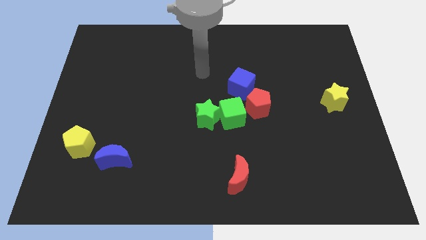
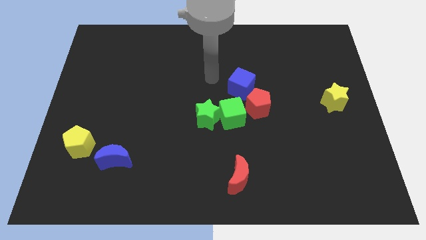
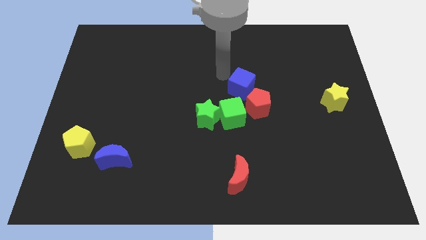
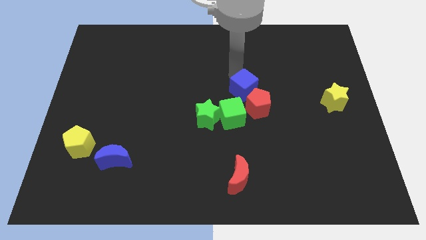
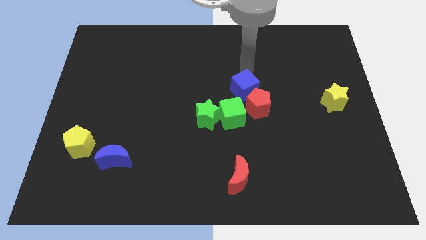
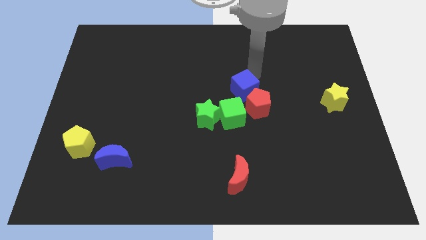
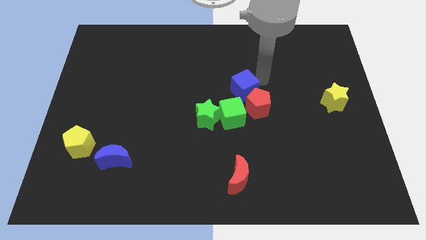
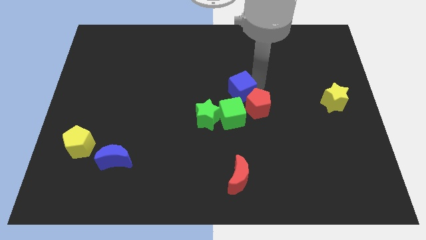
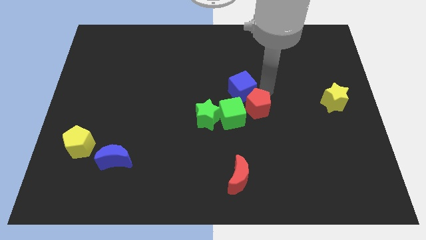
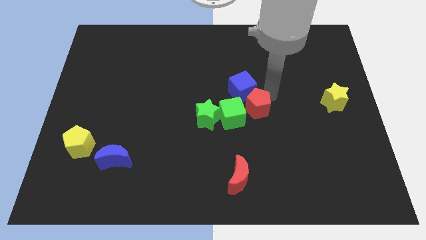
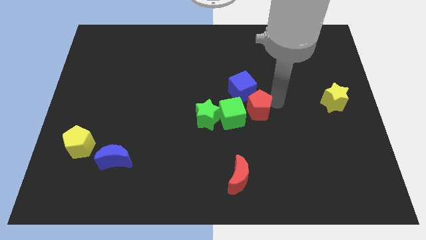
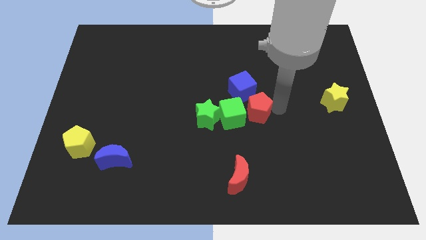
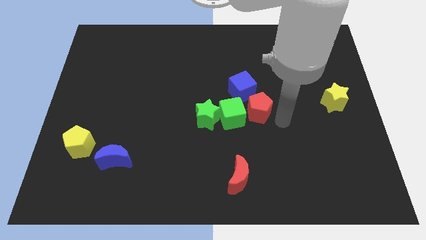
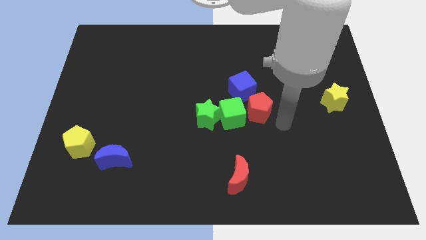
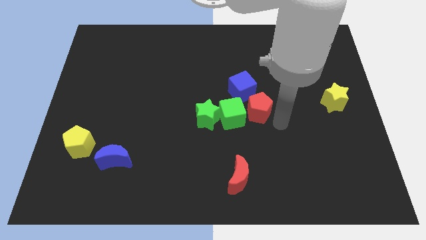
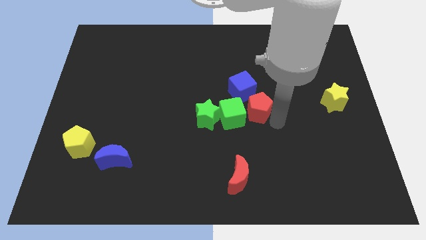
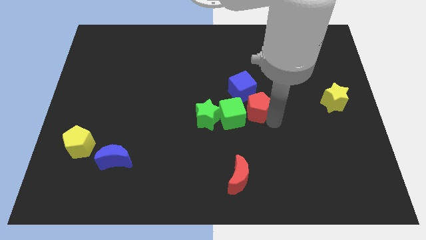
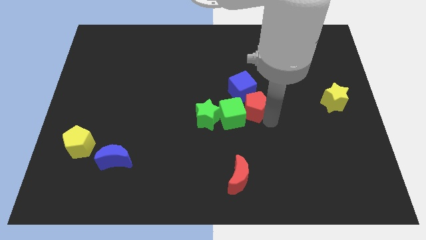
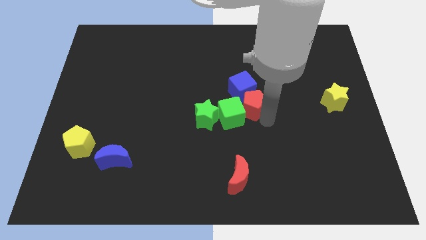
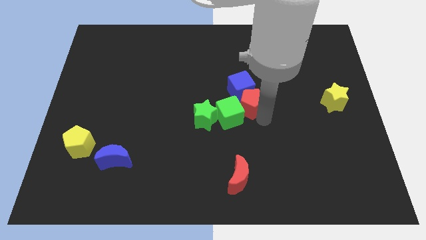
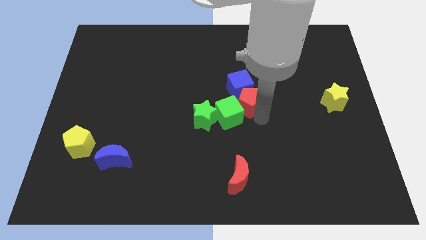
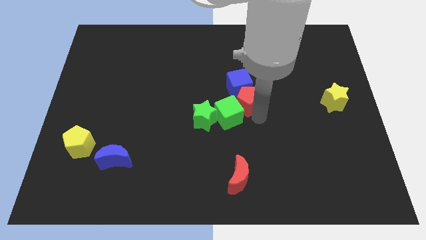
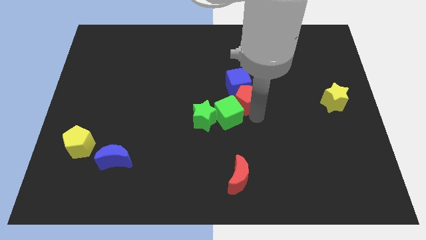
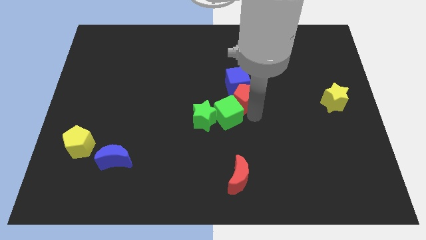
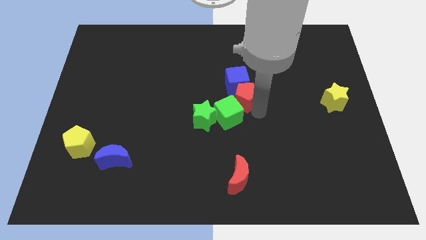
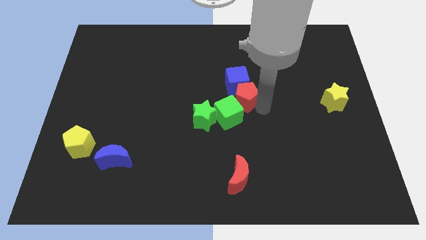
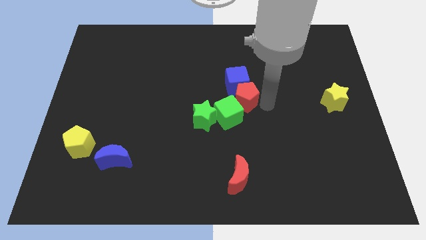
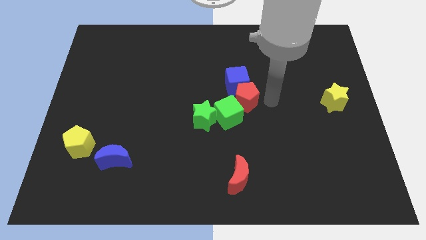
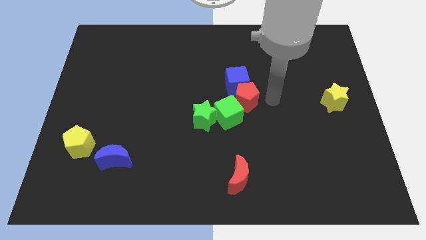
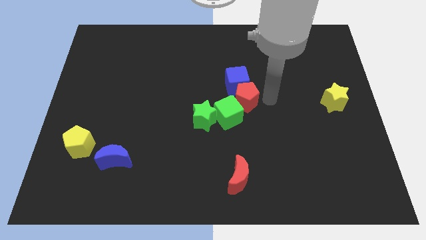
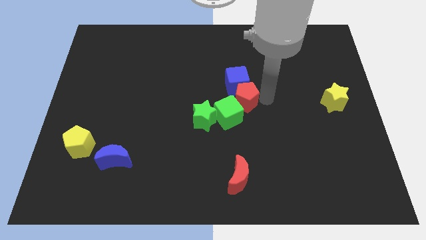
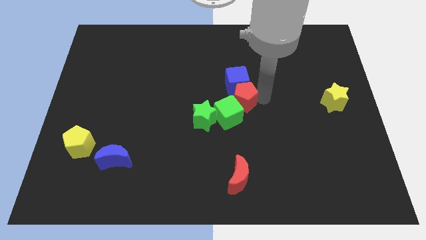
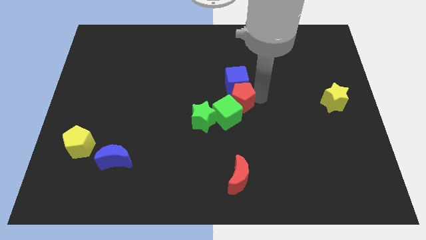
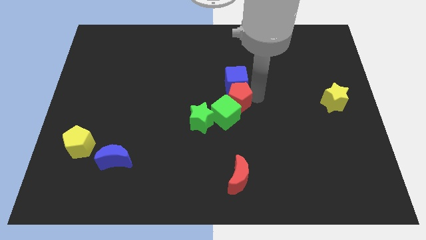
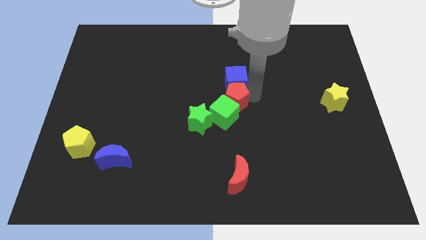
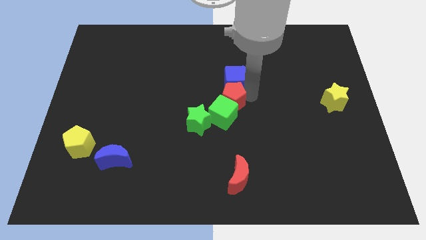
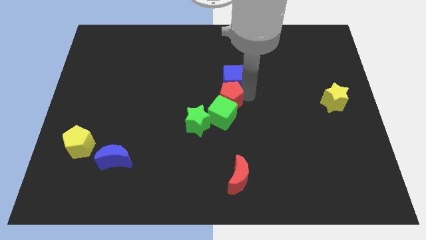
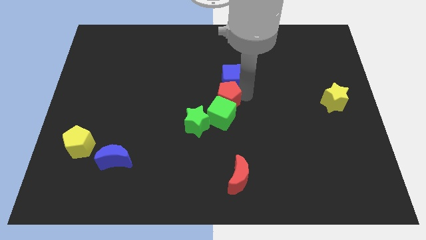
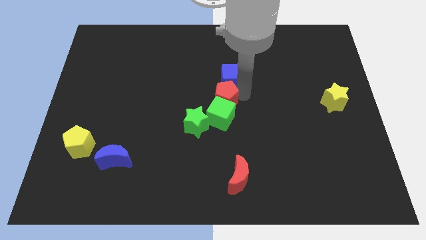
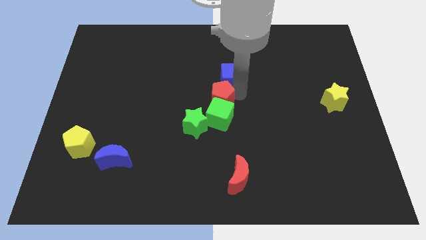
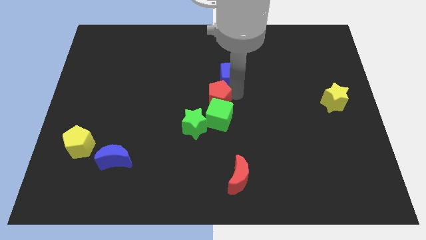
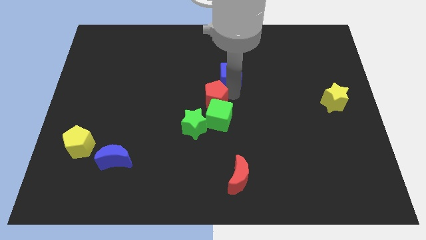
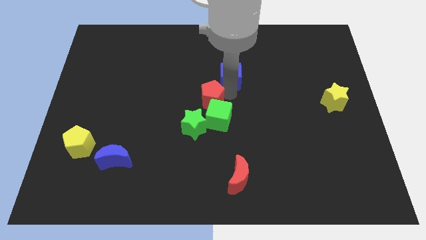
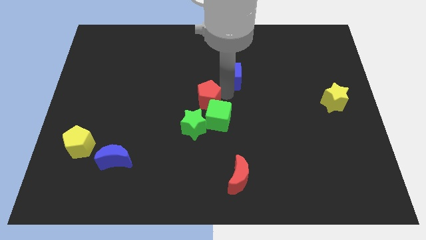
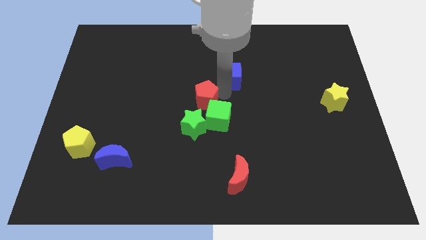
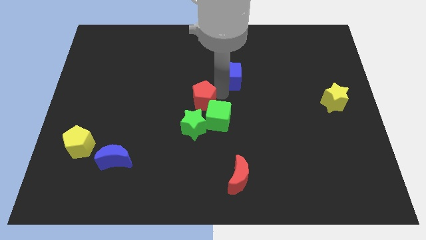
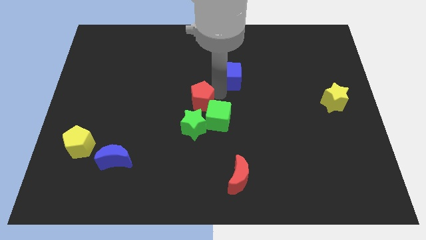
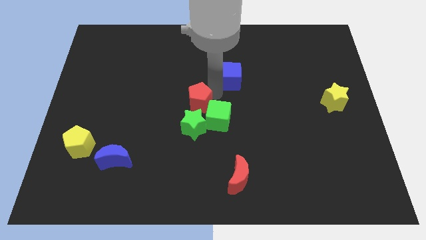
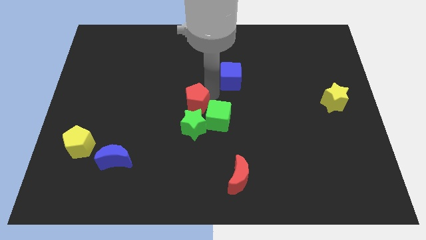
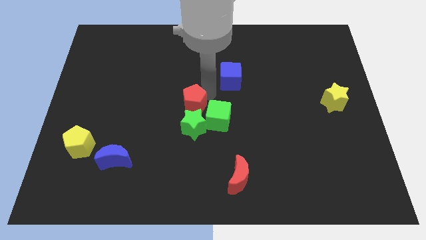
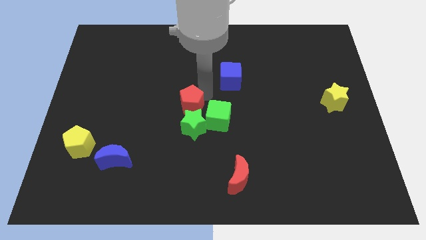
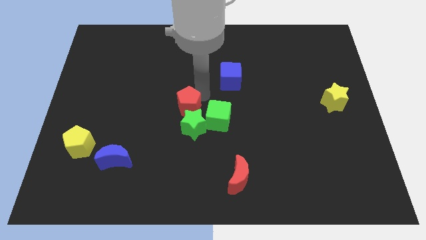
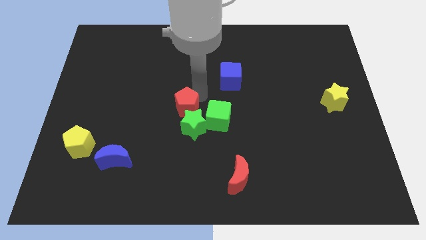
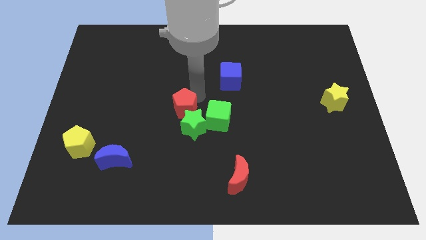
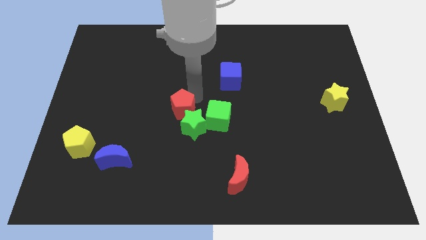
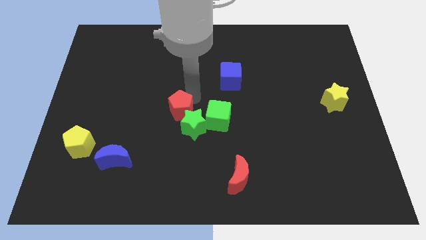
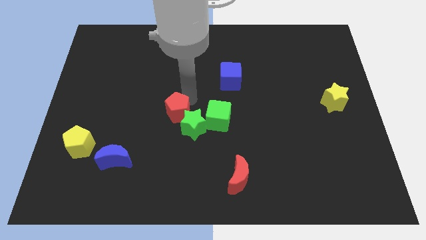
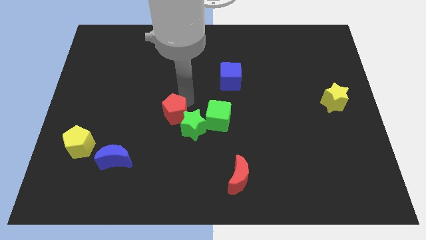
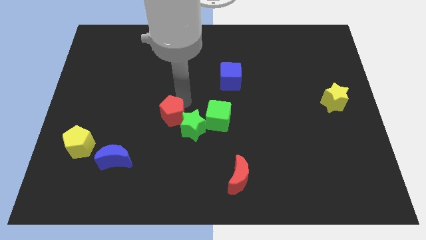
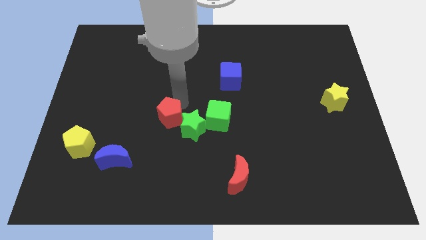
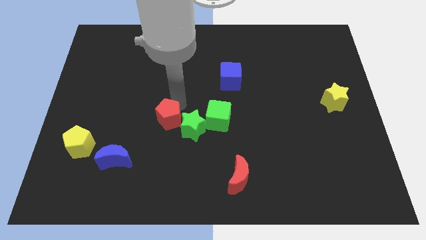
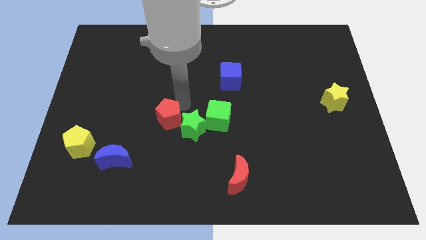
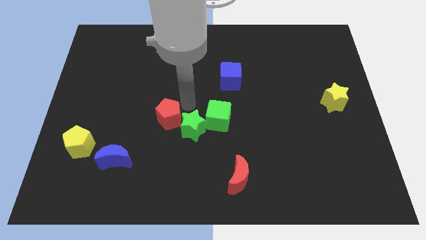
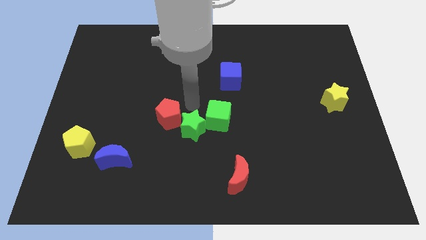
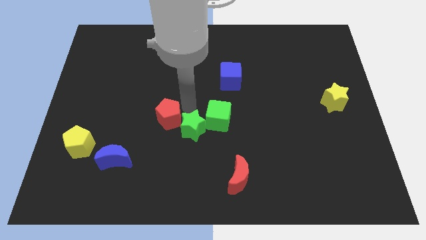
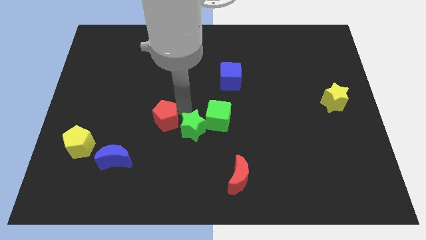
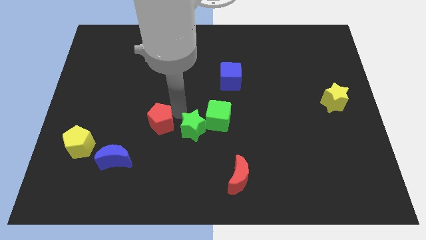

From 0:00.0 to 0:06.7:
push the red pentagon to the top right of the blue moon
